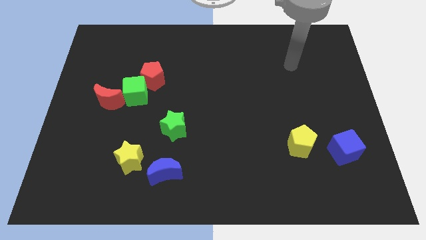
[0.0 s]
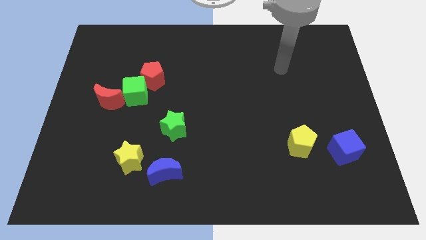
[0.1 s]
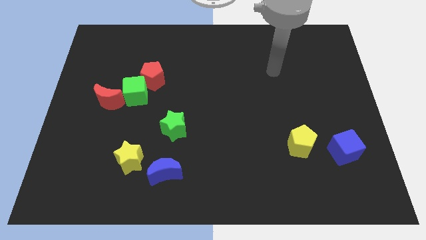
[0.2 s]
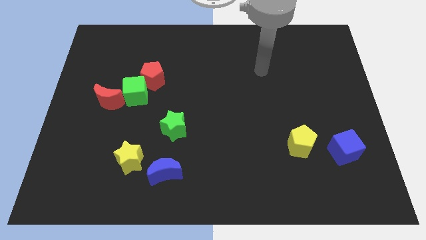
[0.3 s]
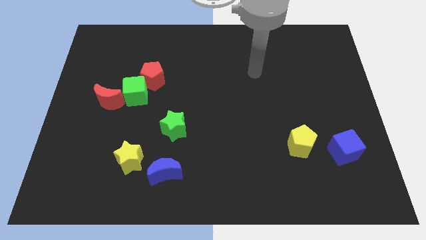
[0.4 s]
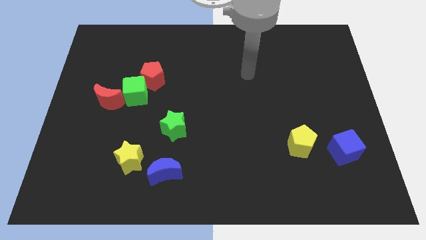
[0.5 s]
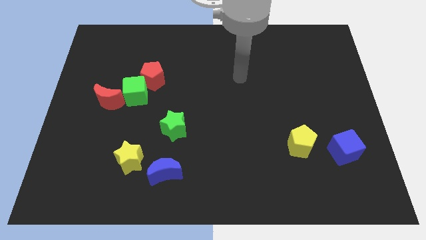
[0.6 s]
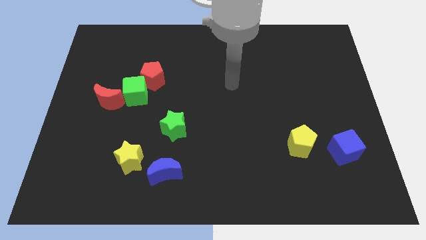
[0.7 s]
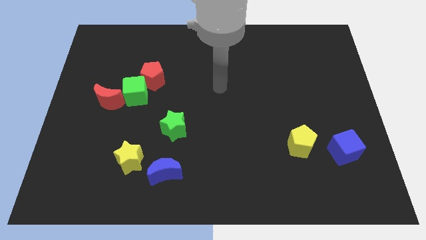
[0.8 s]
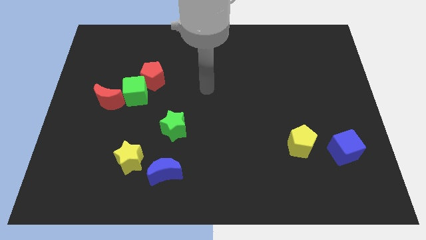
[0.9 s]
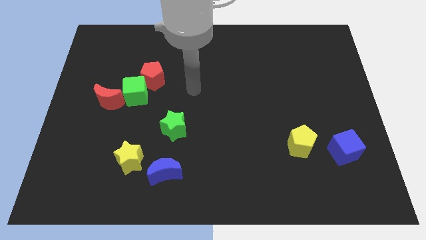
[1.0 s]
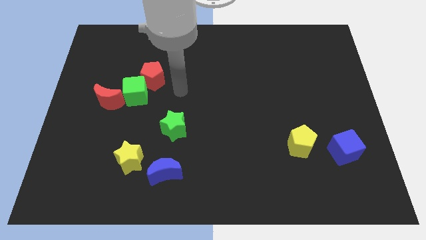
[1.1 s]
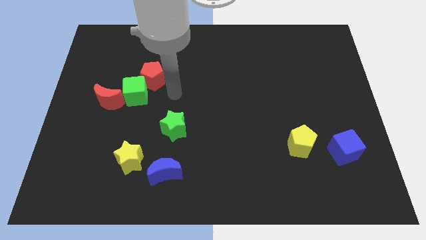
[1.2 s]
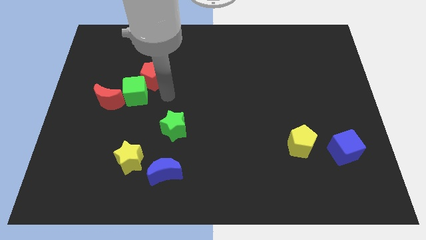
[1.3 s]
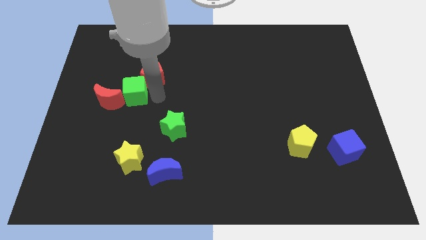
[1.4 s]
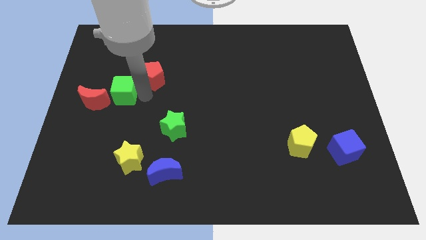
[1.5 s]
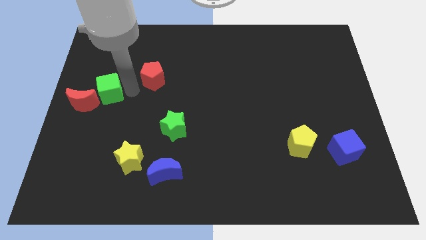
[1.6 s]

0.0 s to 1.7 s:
pull the red pentagon apart from the green cube

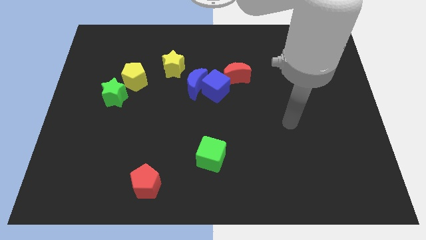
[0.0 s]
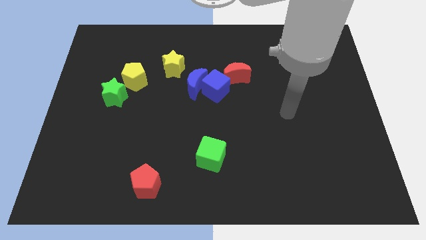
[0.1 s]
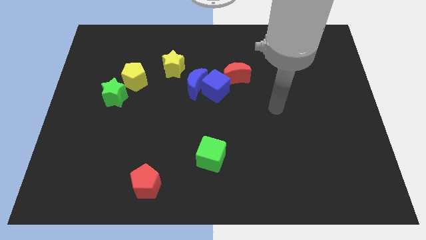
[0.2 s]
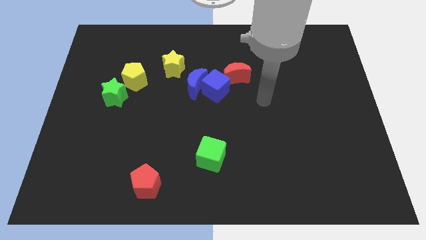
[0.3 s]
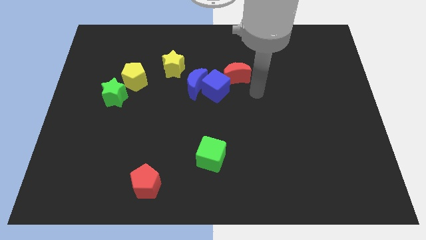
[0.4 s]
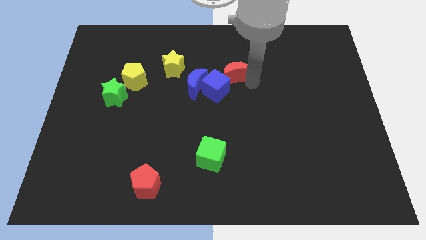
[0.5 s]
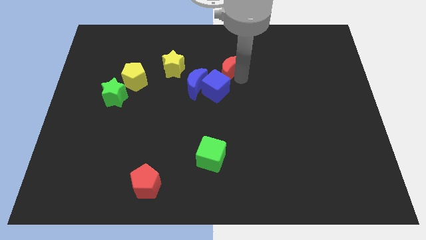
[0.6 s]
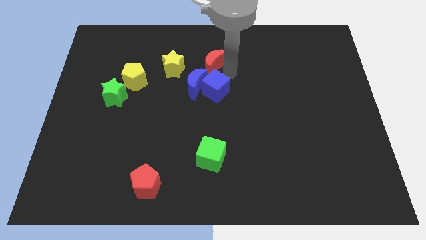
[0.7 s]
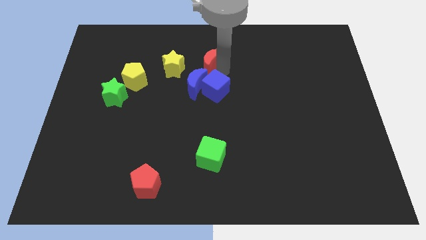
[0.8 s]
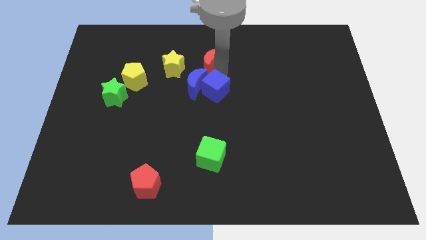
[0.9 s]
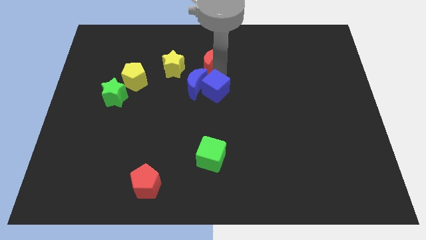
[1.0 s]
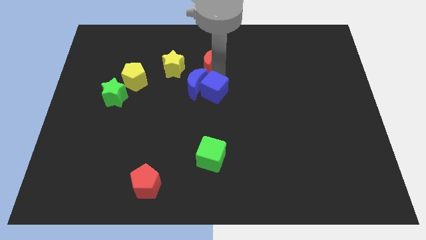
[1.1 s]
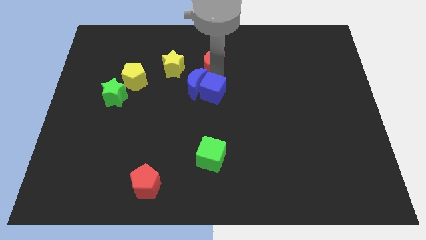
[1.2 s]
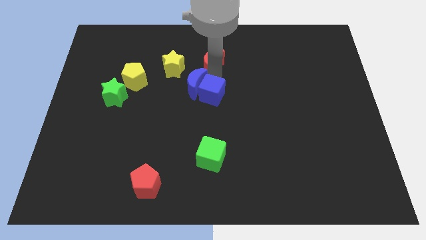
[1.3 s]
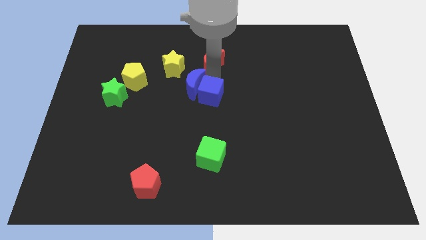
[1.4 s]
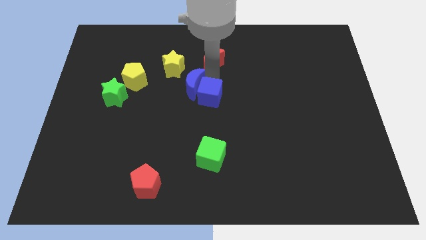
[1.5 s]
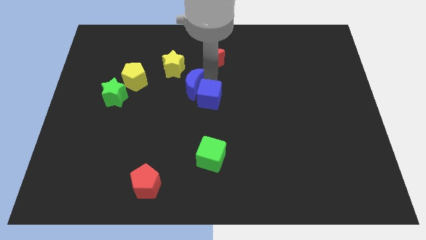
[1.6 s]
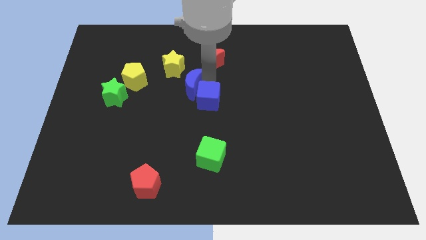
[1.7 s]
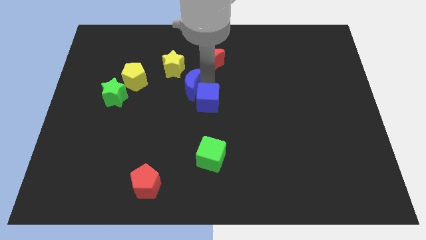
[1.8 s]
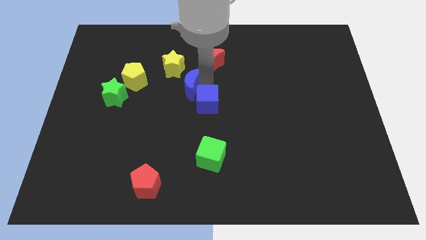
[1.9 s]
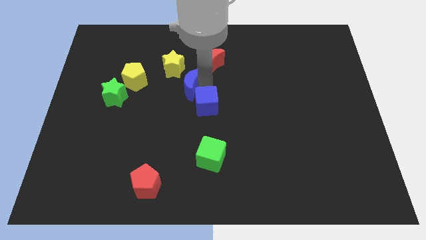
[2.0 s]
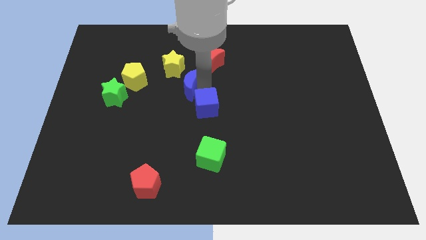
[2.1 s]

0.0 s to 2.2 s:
separate the blue cube from the blue moon and red moon

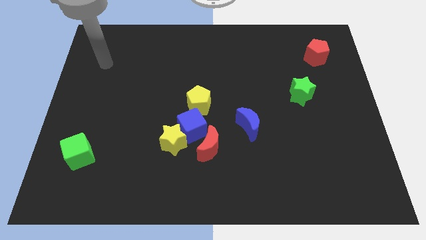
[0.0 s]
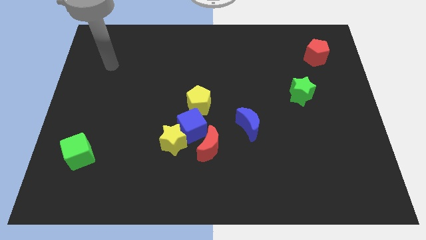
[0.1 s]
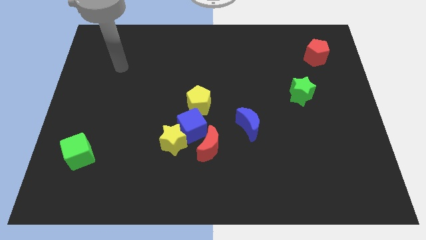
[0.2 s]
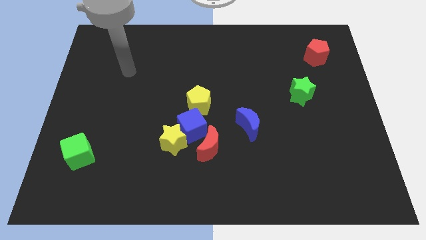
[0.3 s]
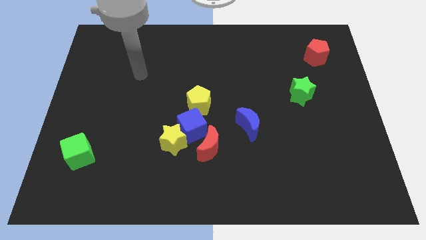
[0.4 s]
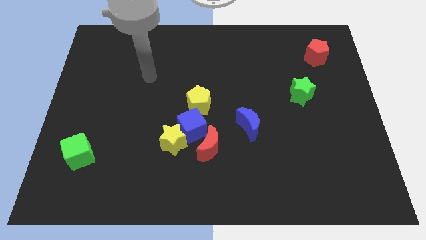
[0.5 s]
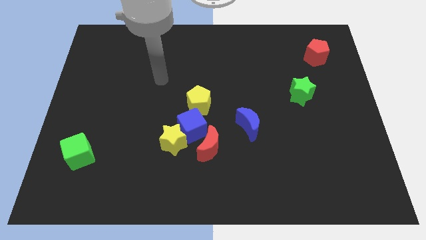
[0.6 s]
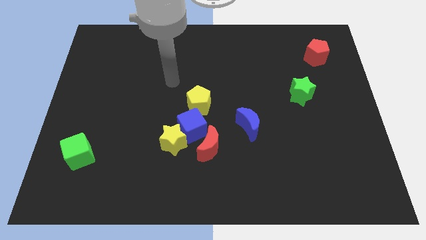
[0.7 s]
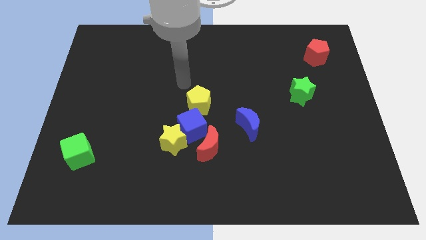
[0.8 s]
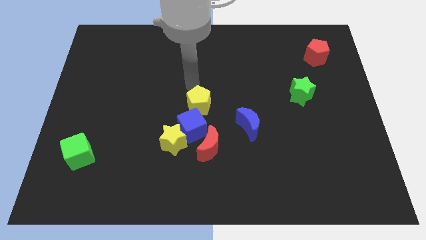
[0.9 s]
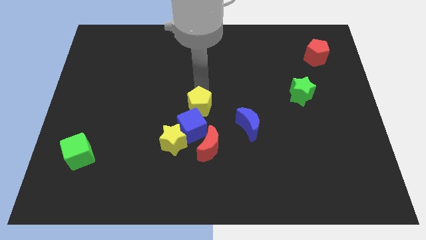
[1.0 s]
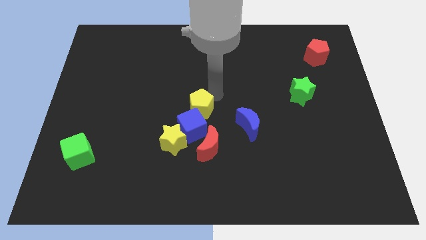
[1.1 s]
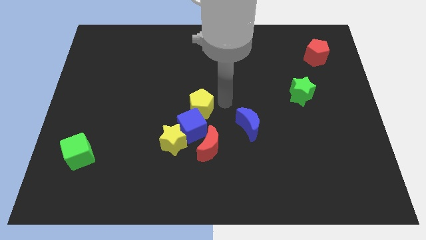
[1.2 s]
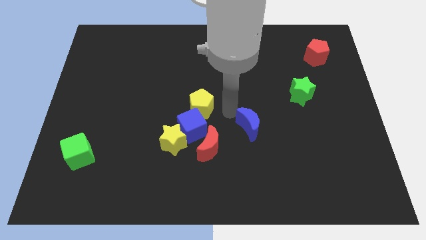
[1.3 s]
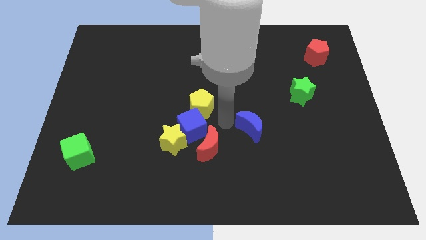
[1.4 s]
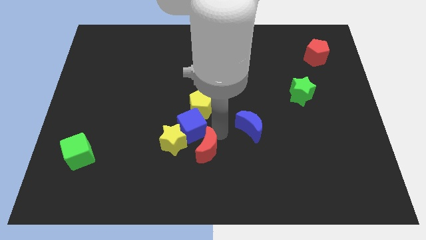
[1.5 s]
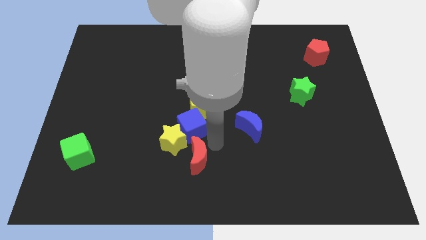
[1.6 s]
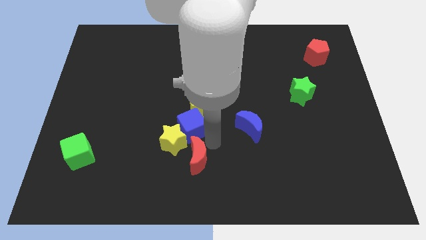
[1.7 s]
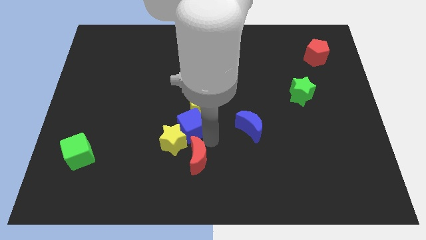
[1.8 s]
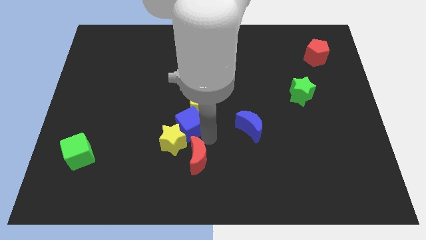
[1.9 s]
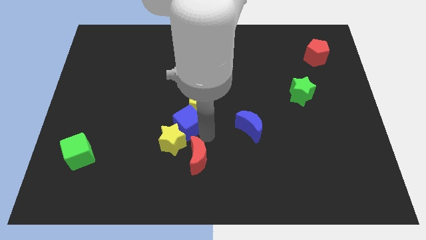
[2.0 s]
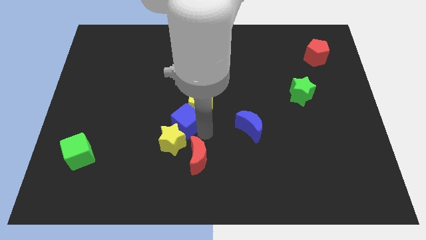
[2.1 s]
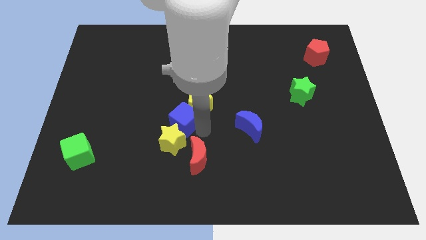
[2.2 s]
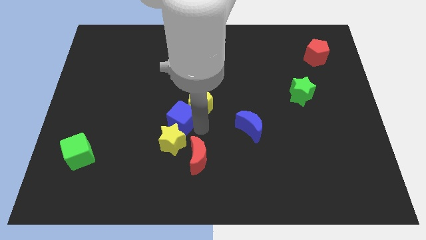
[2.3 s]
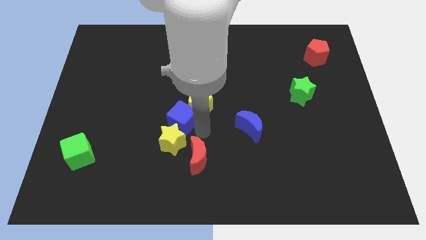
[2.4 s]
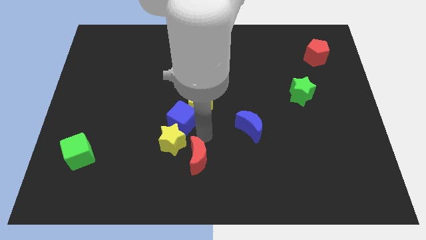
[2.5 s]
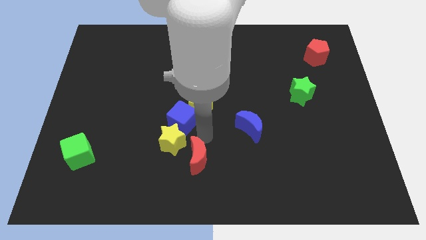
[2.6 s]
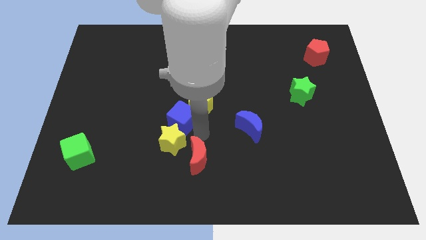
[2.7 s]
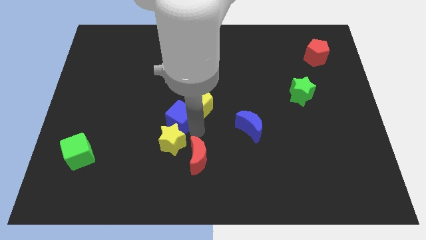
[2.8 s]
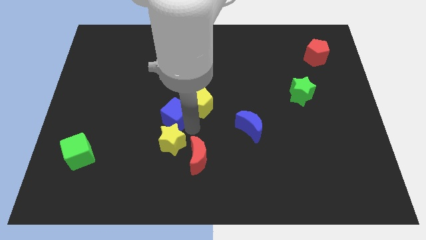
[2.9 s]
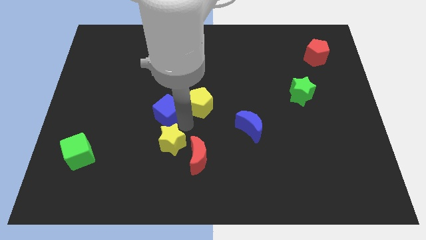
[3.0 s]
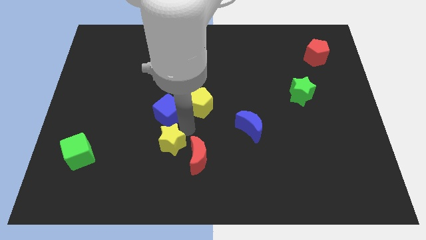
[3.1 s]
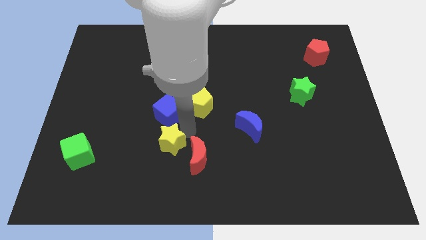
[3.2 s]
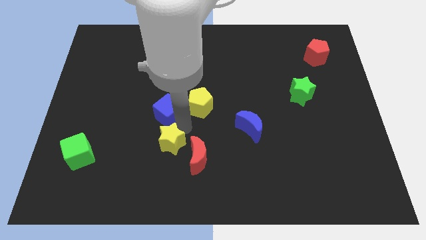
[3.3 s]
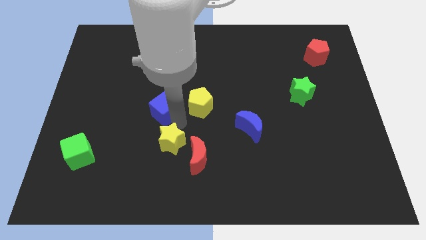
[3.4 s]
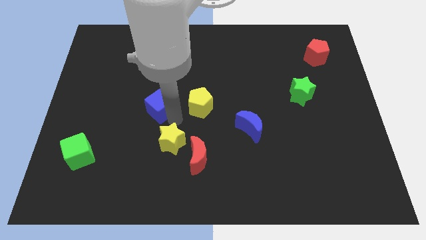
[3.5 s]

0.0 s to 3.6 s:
move the blue cube away from the yellow star, red moon, and yellow pentagon

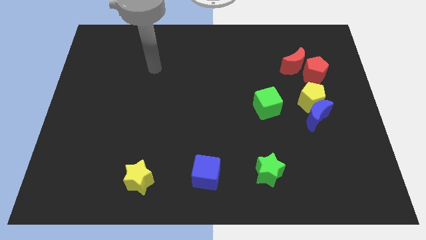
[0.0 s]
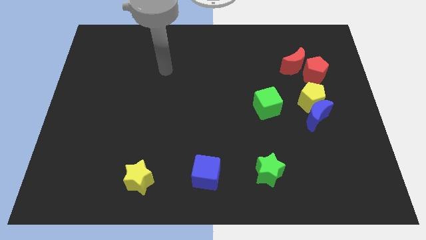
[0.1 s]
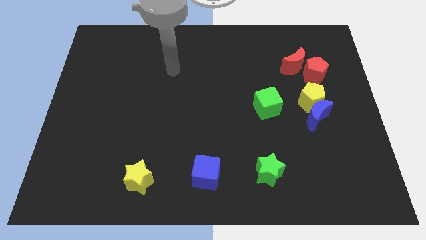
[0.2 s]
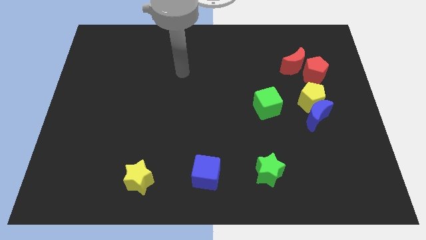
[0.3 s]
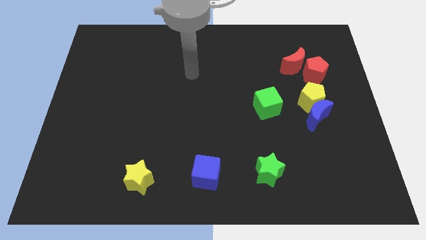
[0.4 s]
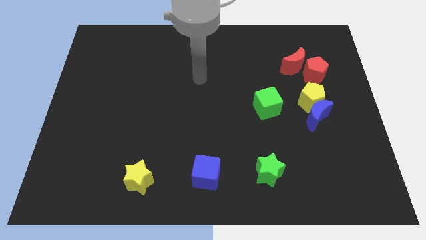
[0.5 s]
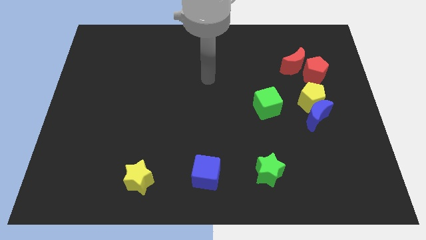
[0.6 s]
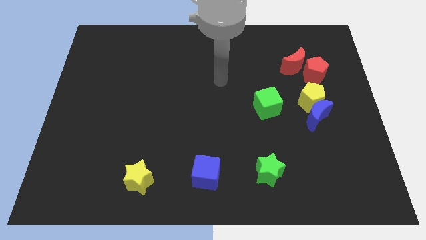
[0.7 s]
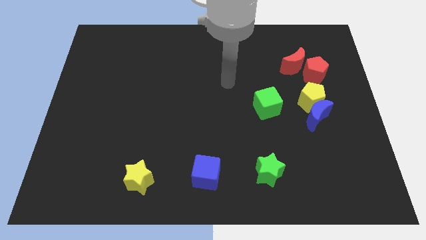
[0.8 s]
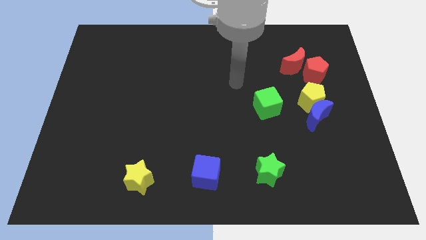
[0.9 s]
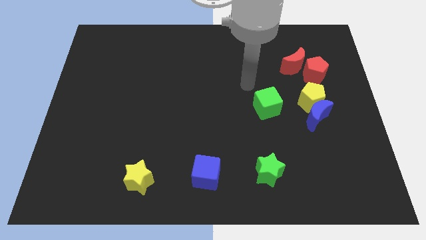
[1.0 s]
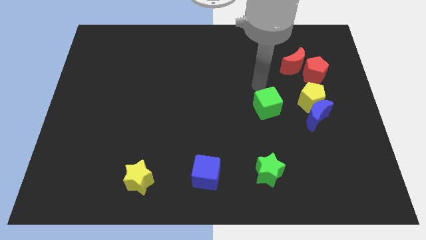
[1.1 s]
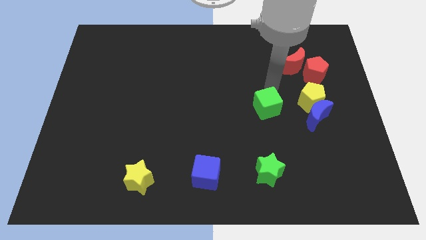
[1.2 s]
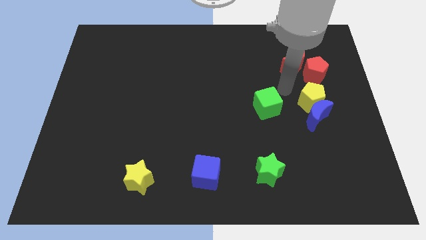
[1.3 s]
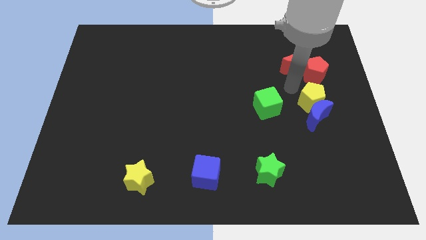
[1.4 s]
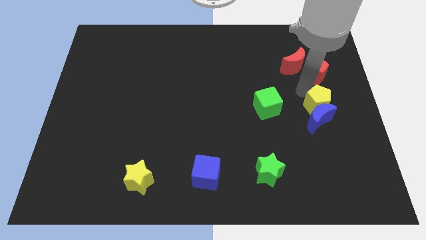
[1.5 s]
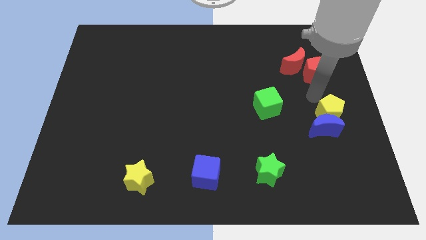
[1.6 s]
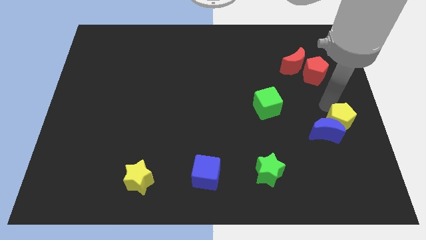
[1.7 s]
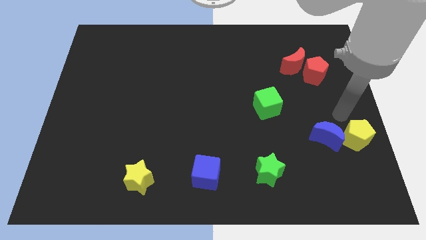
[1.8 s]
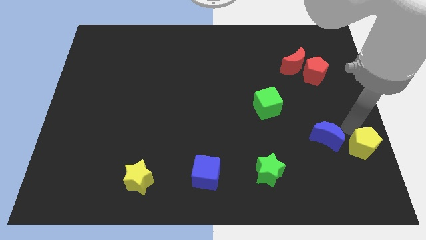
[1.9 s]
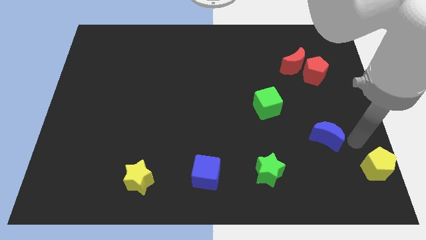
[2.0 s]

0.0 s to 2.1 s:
separate the blue moon from the yellow pentagon
